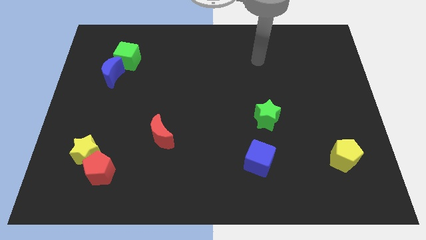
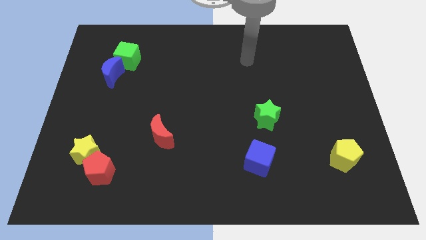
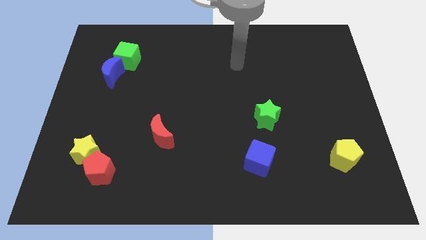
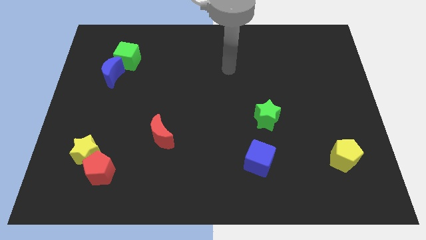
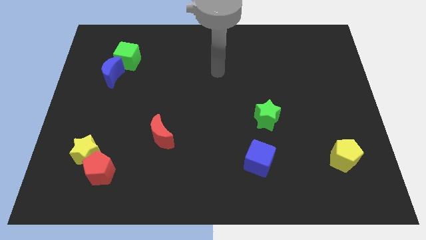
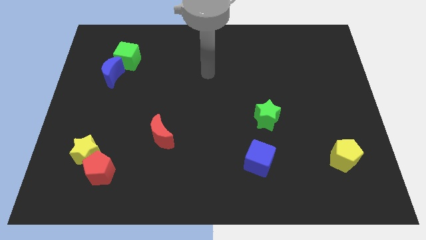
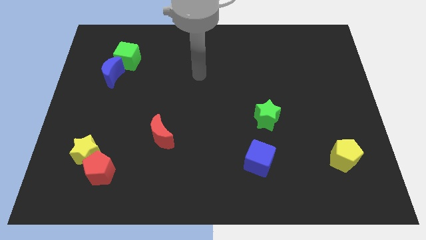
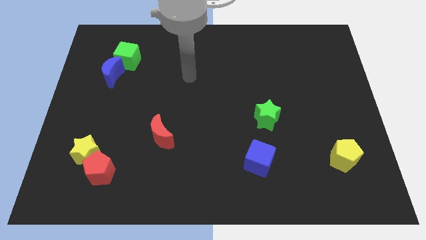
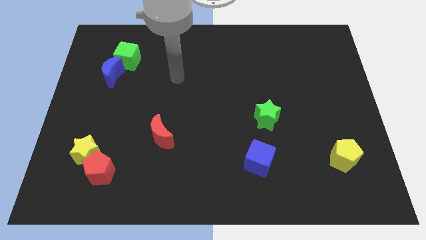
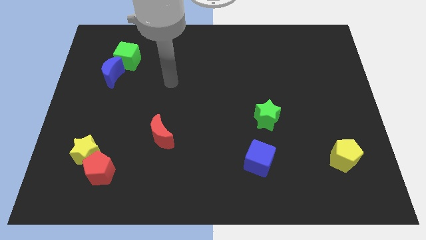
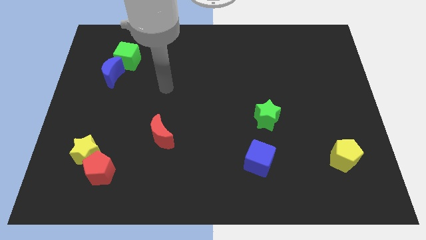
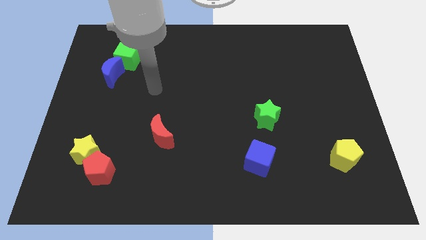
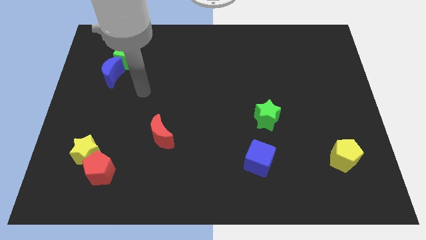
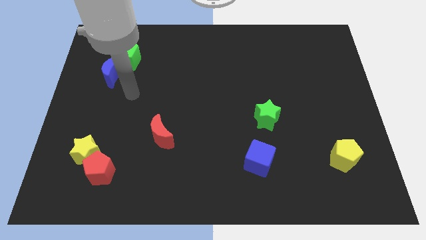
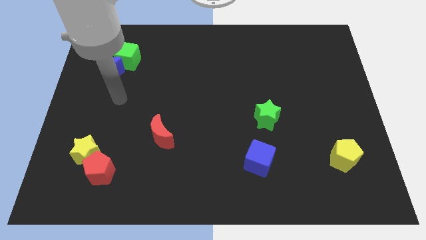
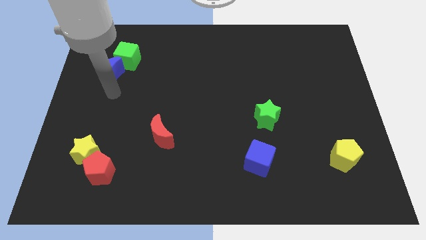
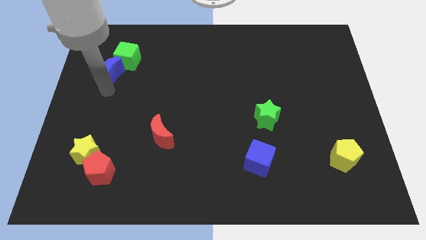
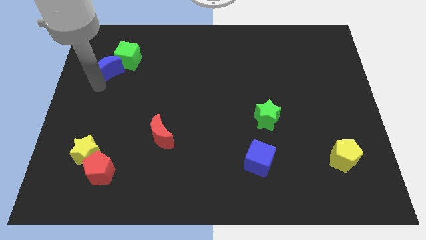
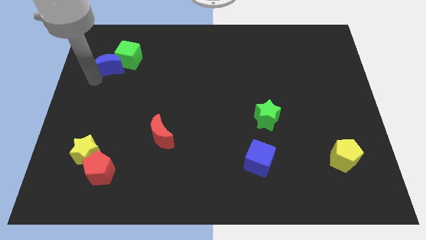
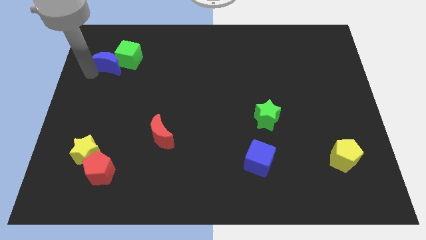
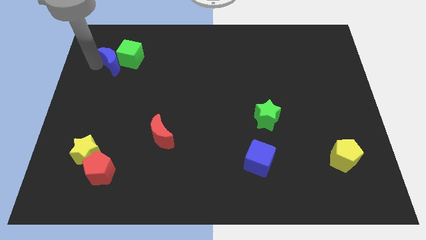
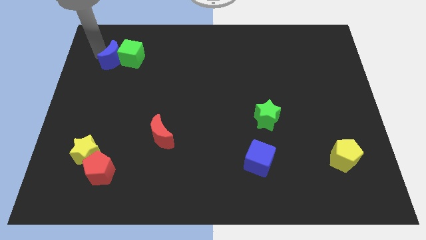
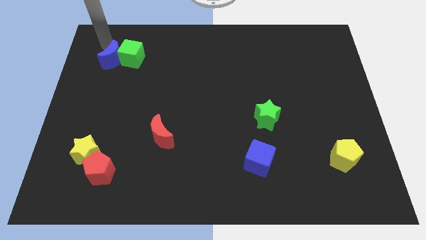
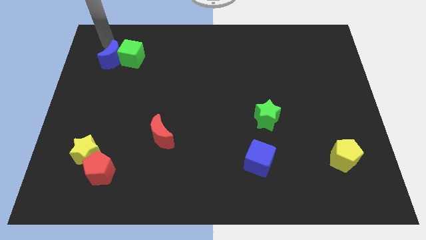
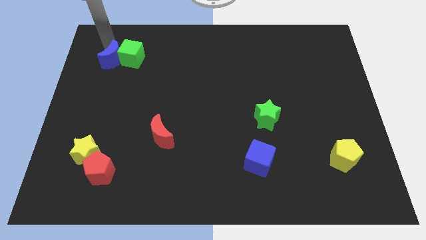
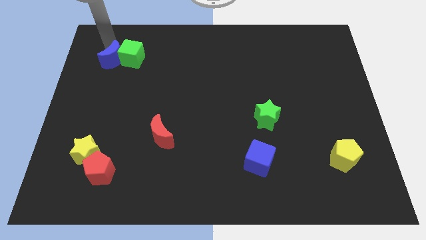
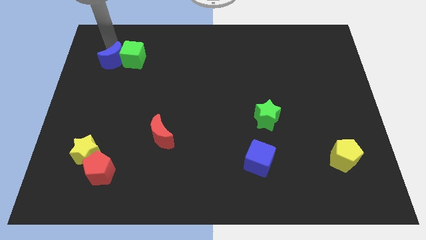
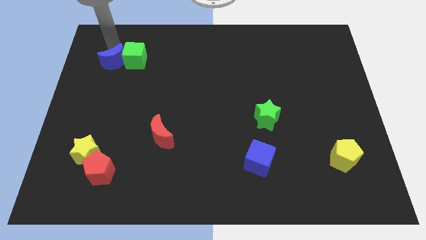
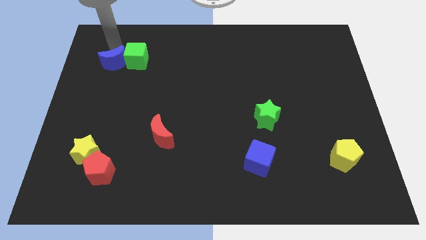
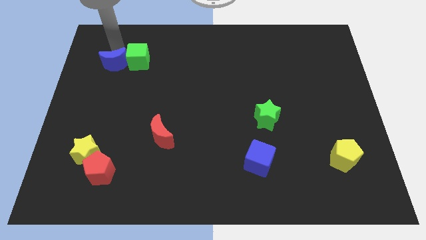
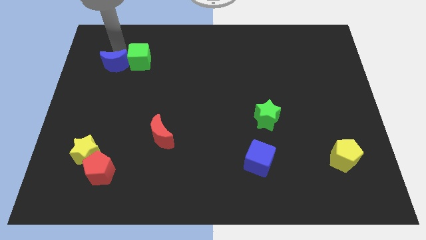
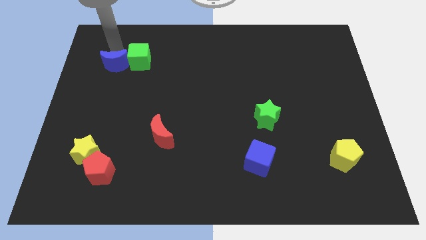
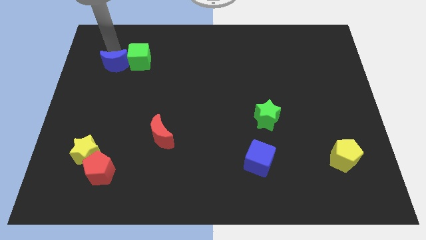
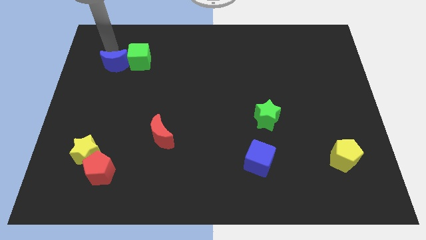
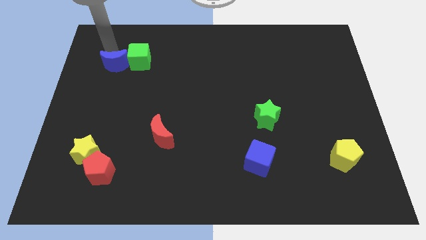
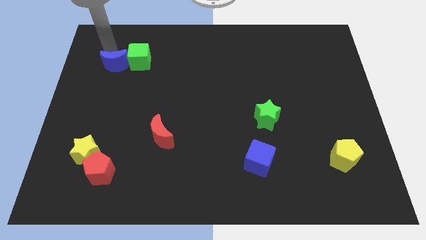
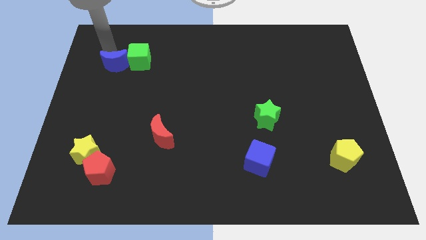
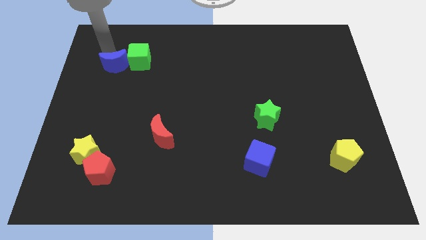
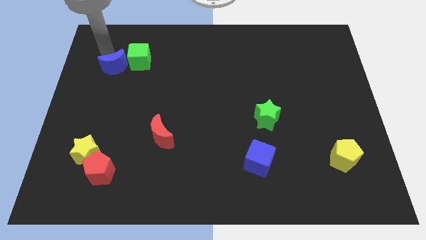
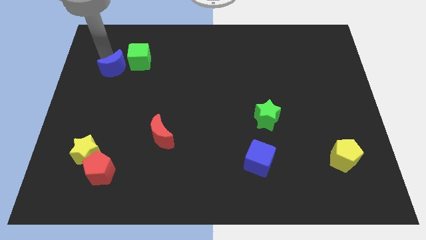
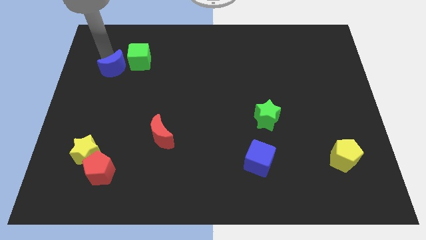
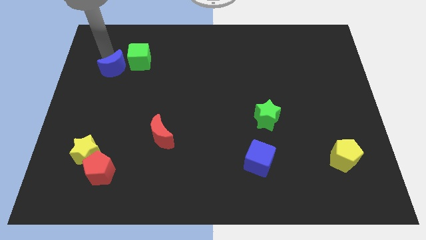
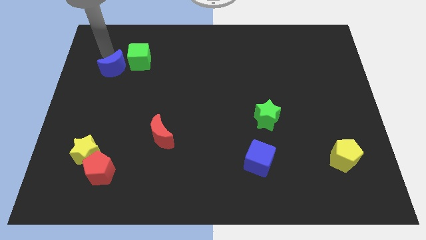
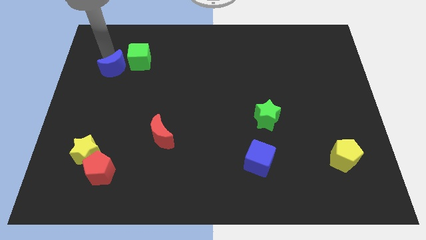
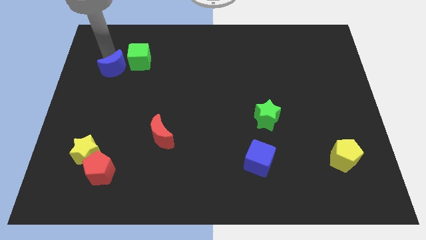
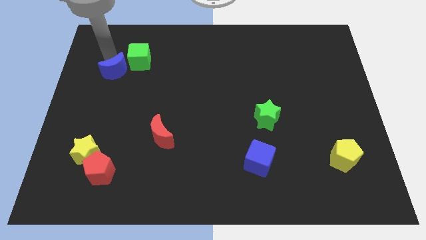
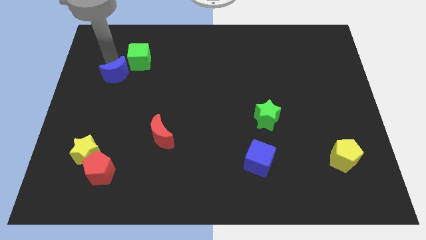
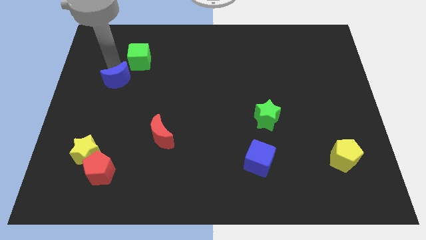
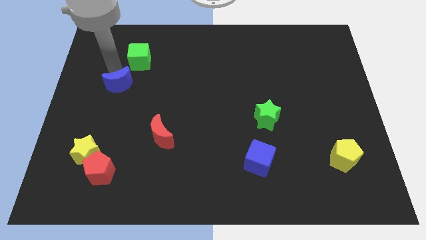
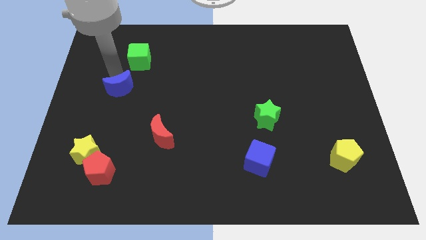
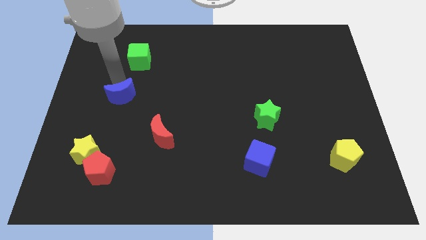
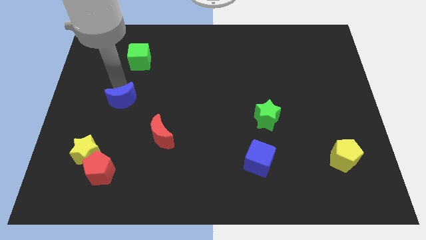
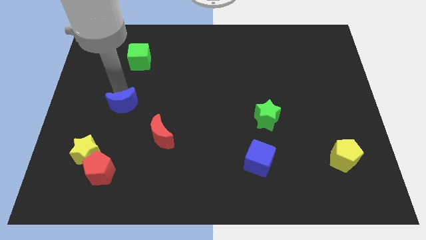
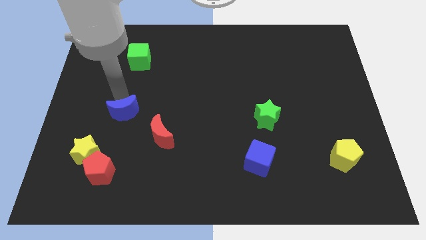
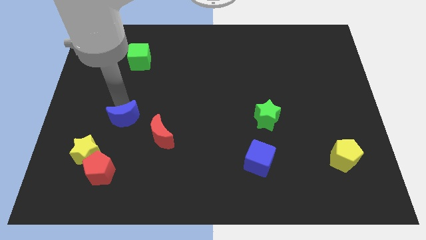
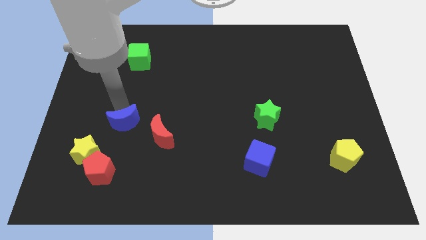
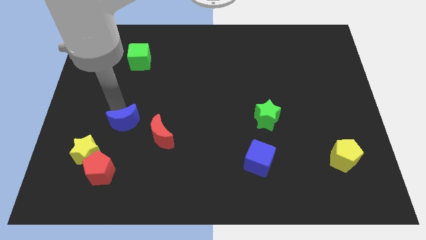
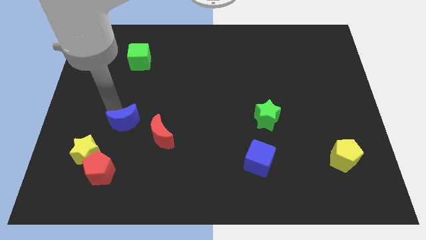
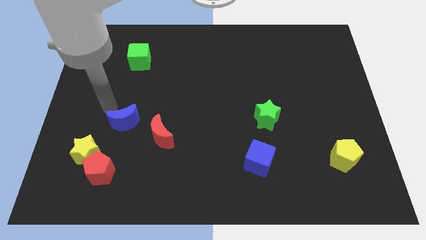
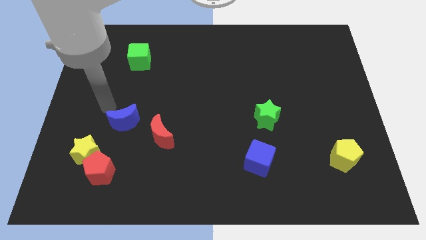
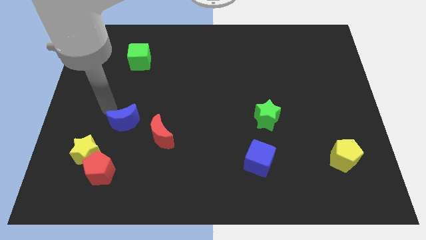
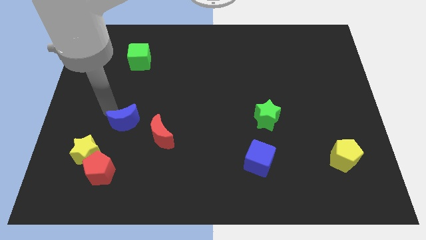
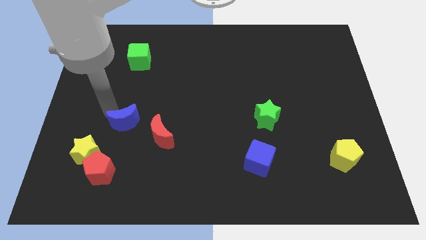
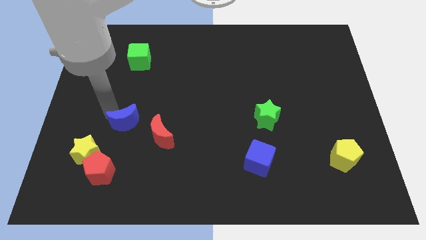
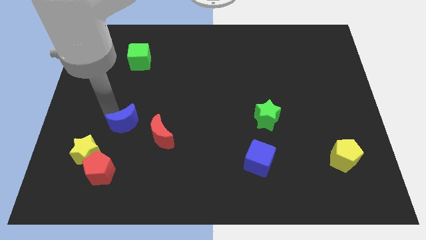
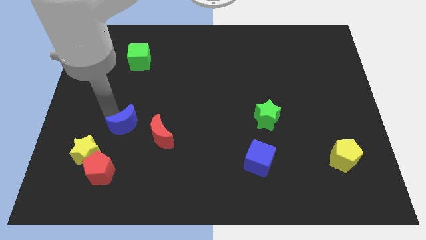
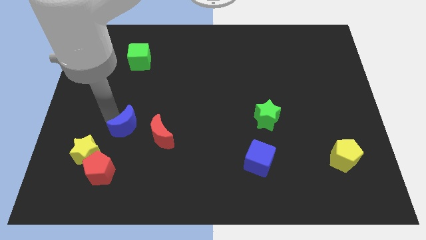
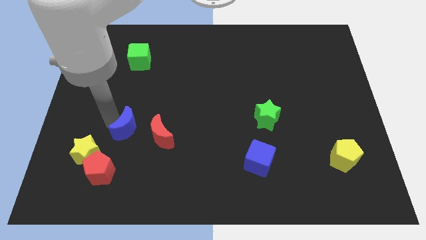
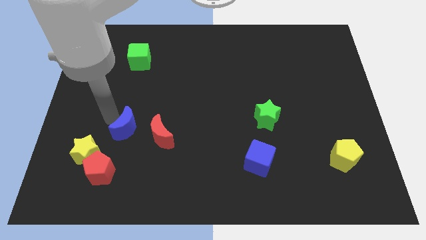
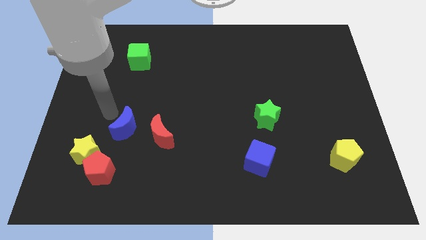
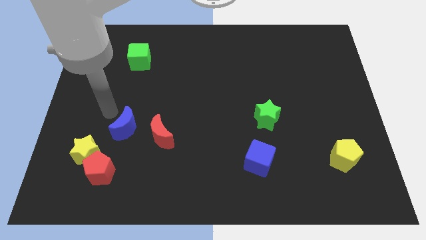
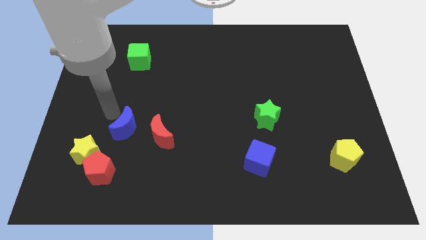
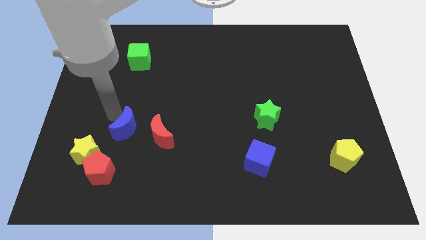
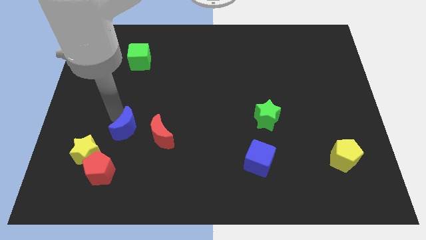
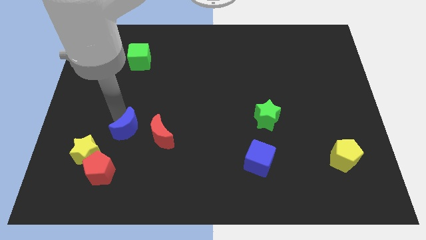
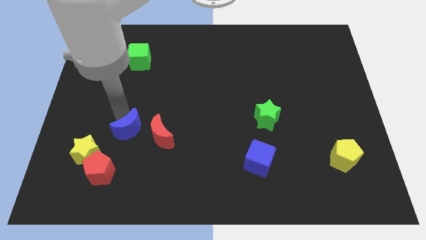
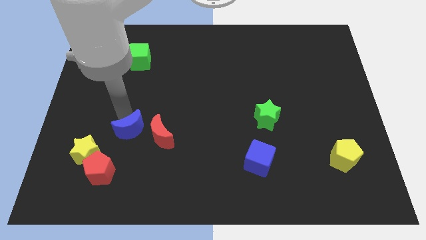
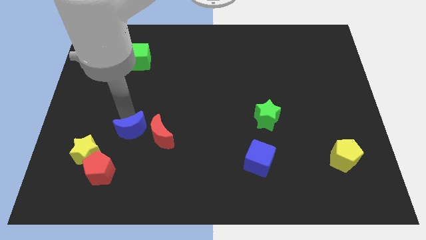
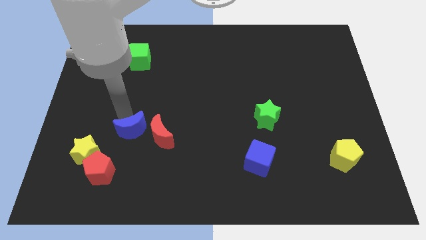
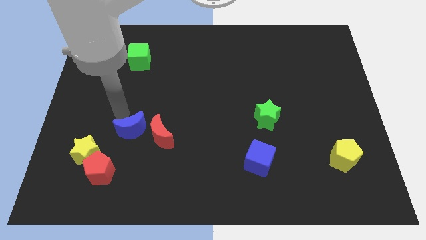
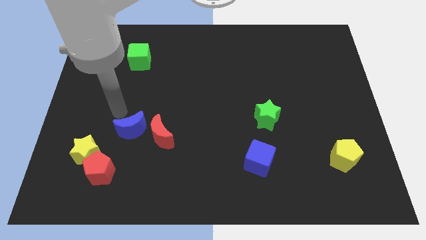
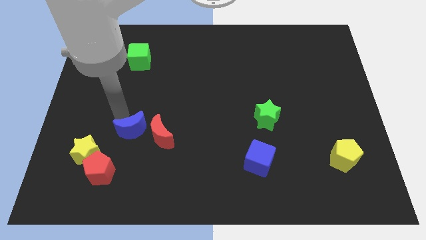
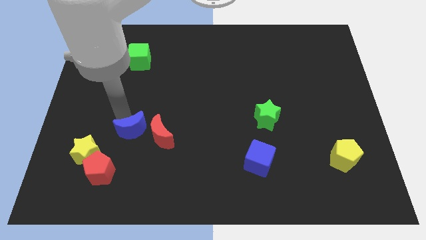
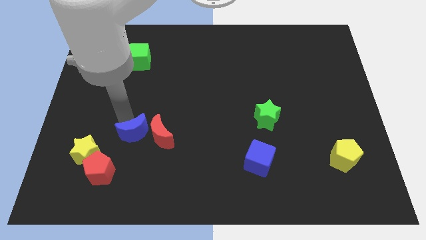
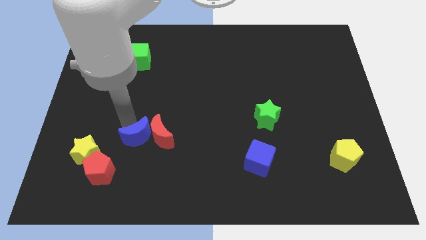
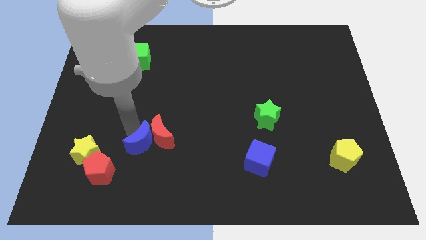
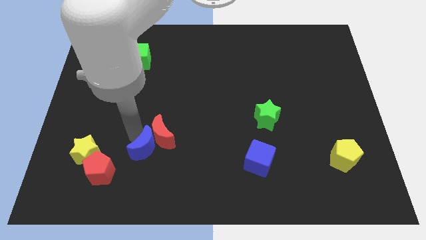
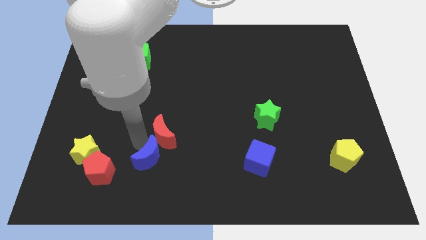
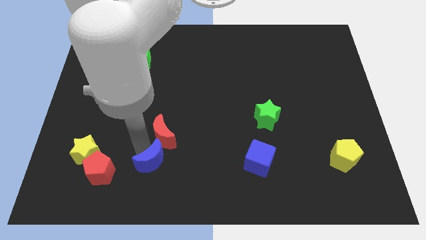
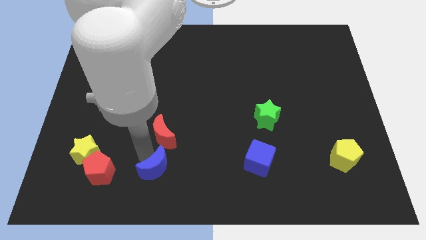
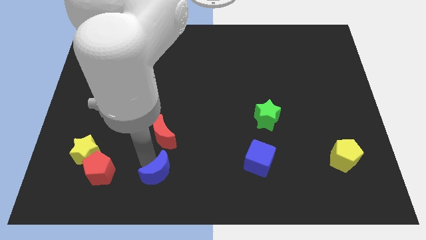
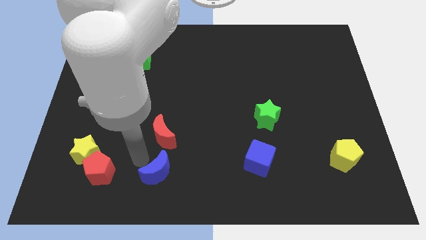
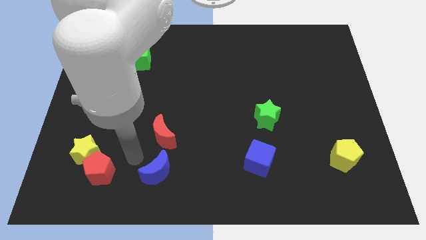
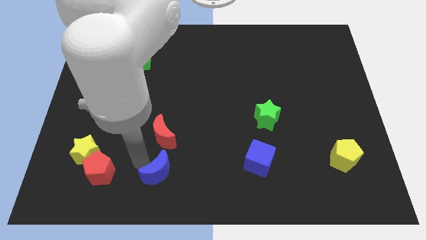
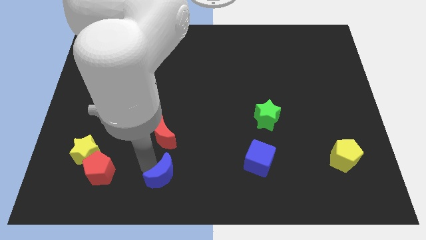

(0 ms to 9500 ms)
push the blue moon to the bottom
